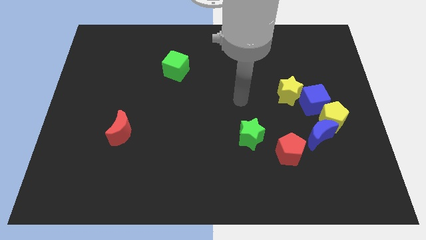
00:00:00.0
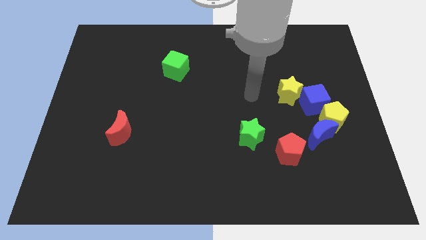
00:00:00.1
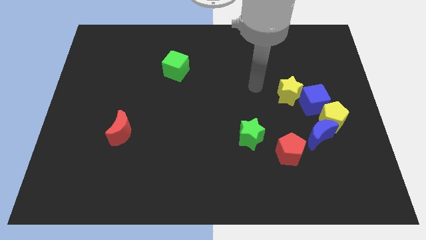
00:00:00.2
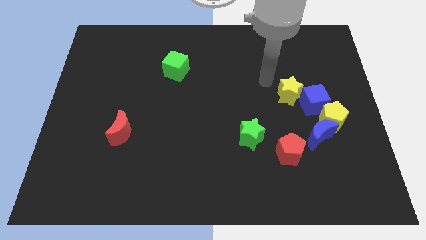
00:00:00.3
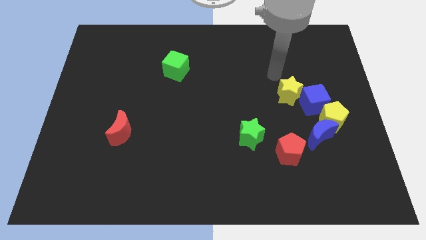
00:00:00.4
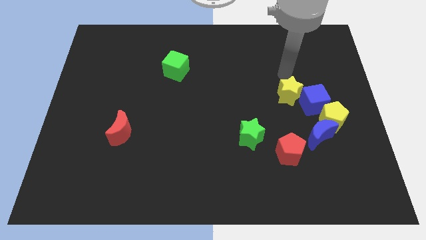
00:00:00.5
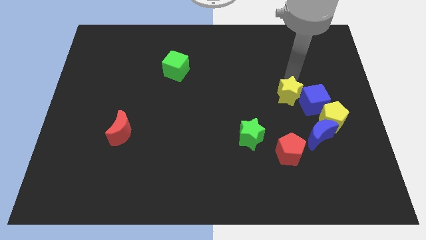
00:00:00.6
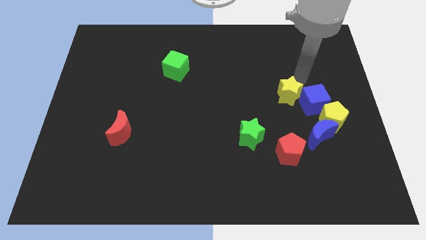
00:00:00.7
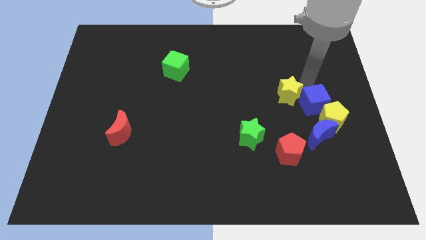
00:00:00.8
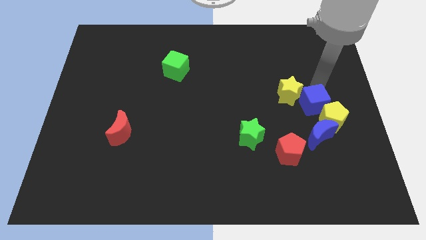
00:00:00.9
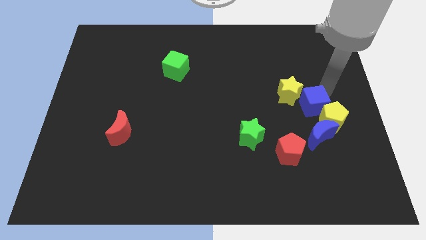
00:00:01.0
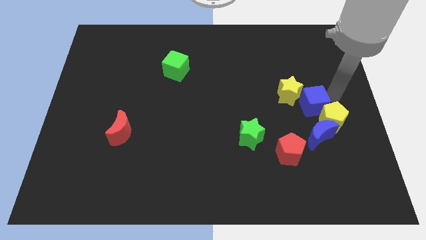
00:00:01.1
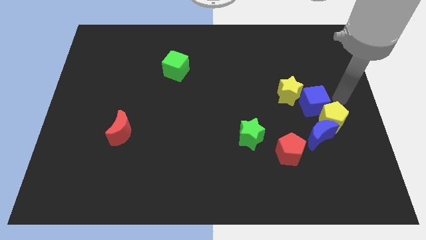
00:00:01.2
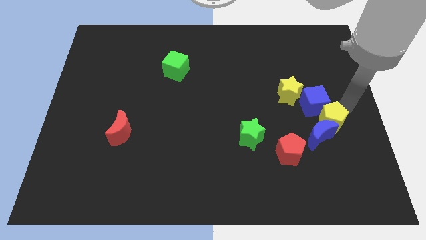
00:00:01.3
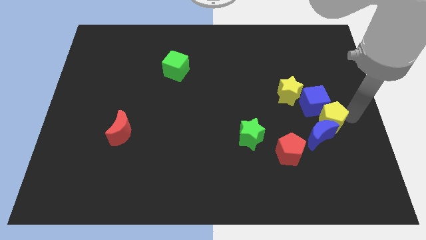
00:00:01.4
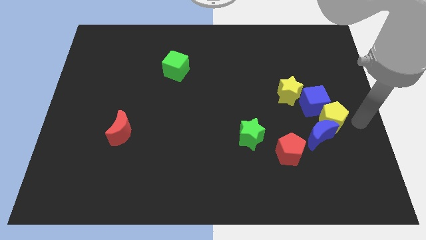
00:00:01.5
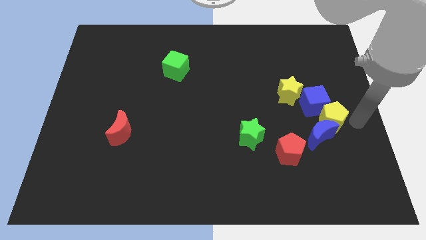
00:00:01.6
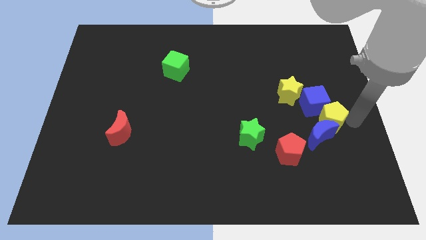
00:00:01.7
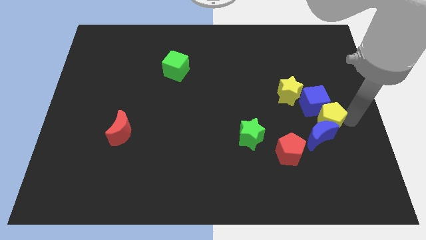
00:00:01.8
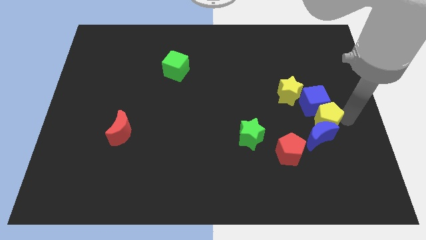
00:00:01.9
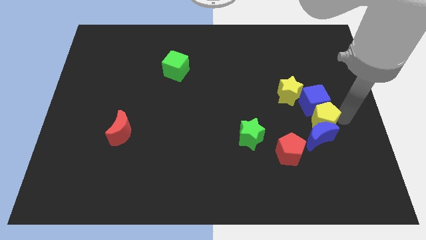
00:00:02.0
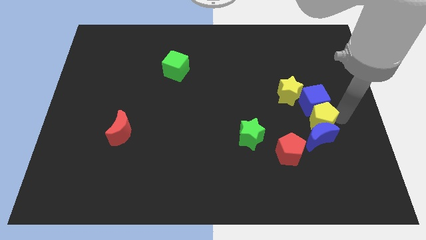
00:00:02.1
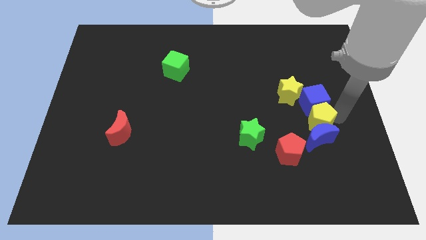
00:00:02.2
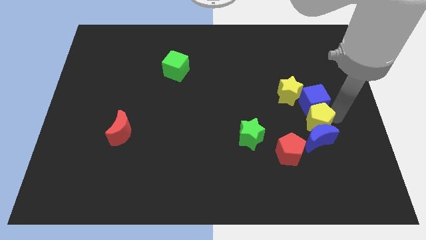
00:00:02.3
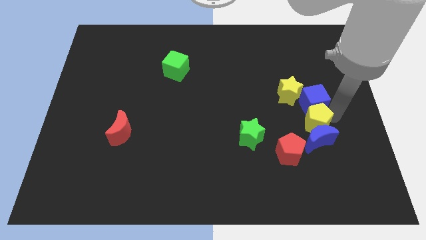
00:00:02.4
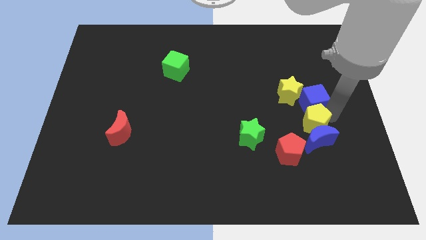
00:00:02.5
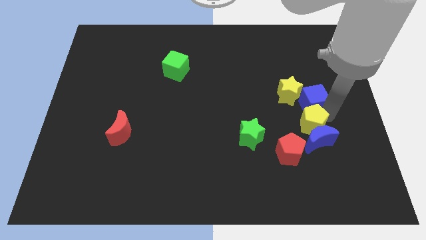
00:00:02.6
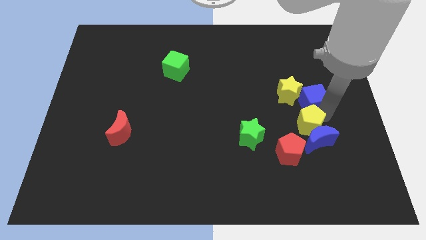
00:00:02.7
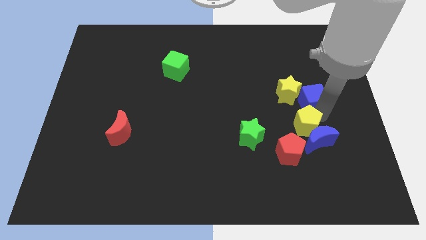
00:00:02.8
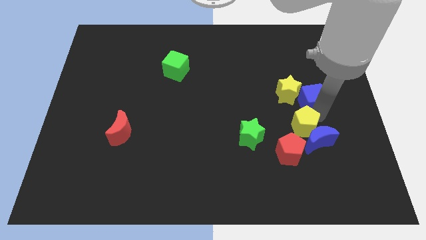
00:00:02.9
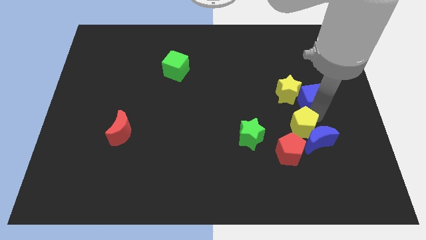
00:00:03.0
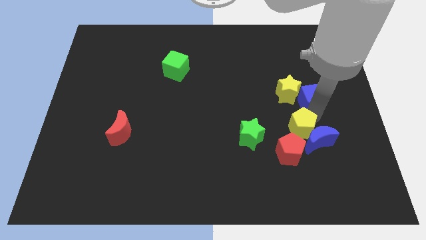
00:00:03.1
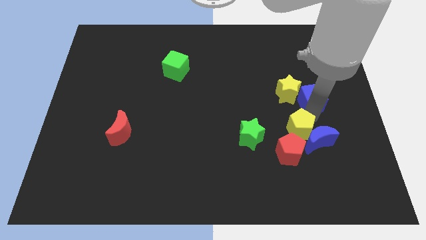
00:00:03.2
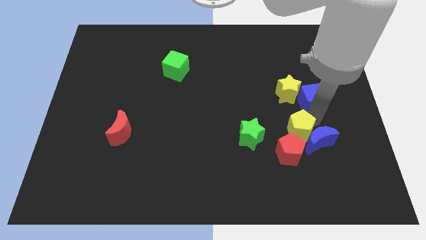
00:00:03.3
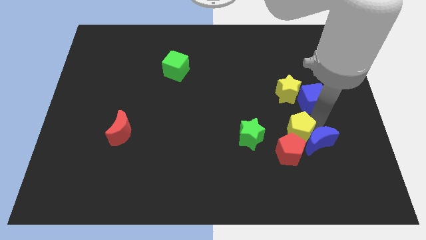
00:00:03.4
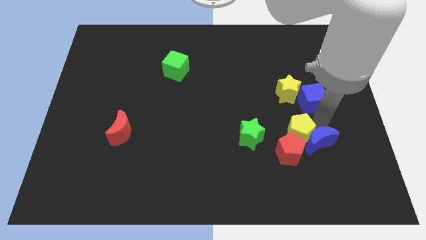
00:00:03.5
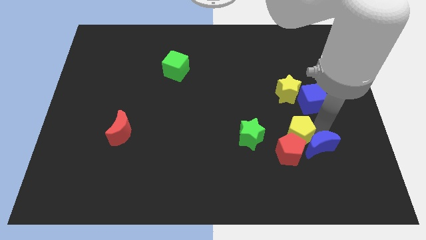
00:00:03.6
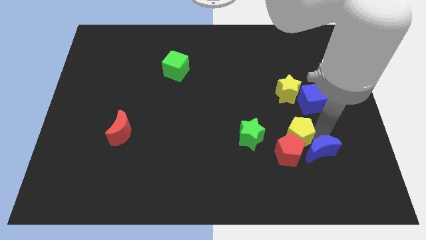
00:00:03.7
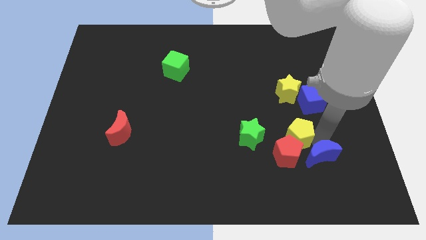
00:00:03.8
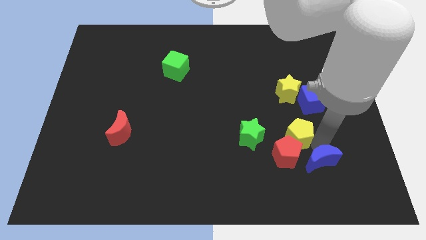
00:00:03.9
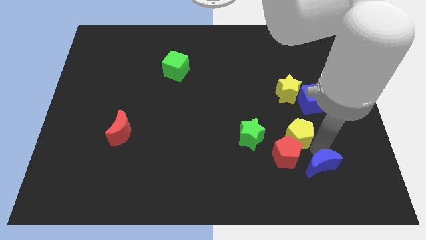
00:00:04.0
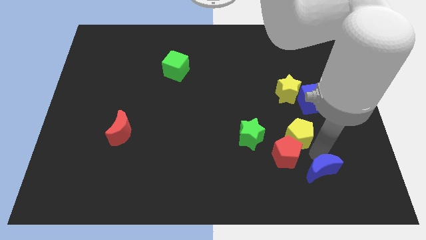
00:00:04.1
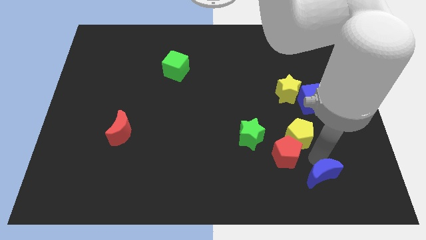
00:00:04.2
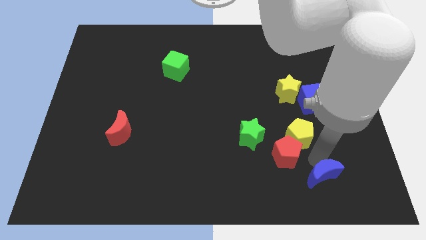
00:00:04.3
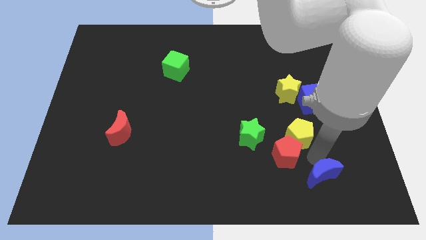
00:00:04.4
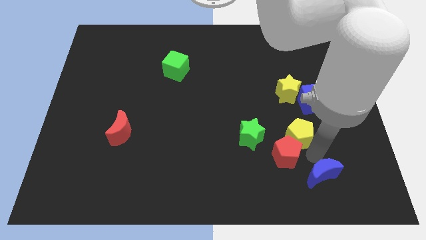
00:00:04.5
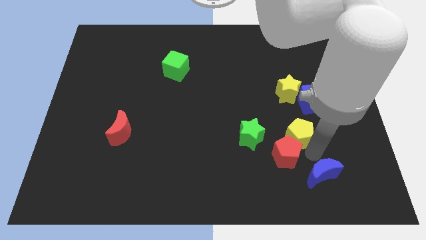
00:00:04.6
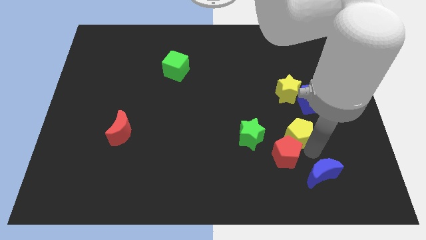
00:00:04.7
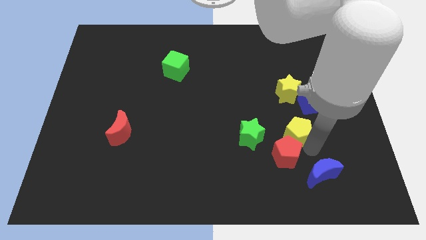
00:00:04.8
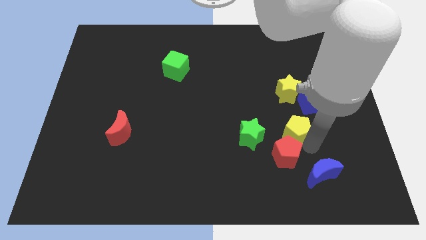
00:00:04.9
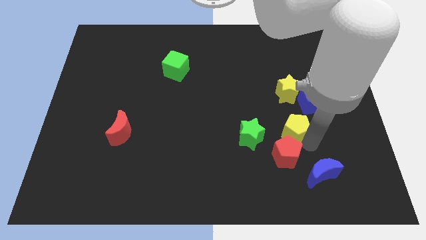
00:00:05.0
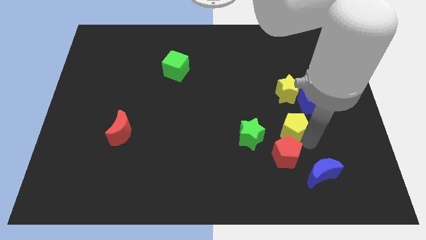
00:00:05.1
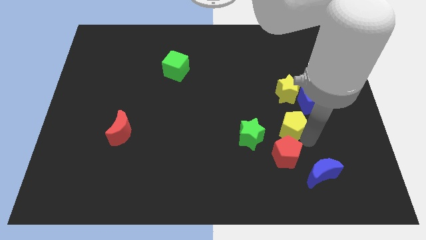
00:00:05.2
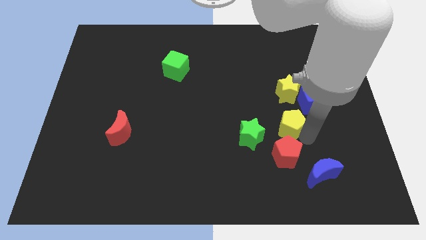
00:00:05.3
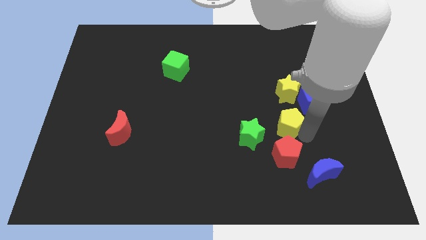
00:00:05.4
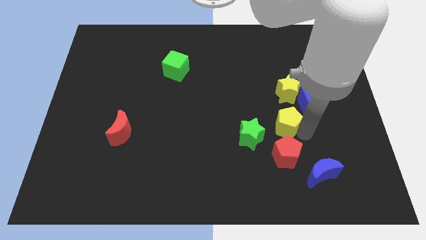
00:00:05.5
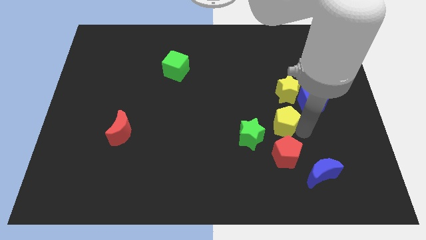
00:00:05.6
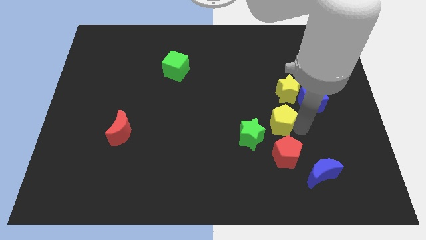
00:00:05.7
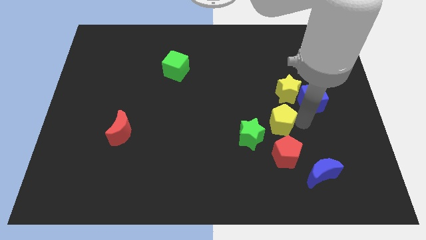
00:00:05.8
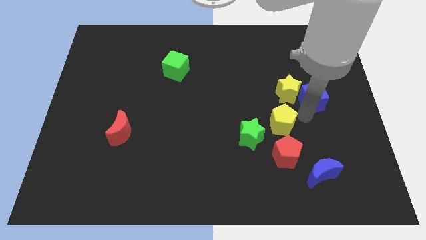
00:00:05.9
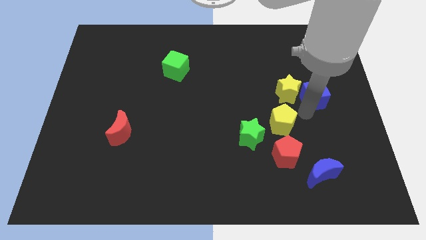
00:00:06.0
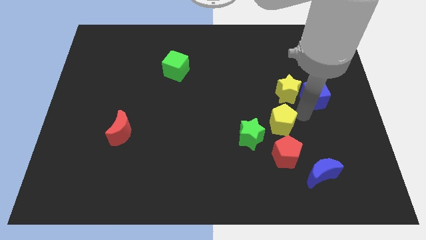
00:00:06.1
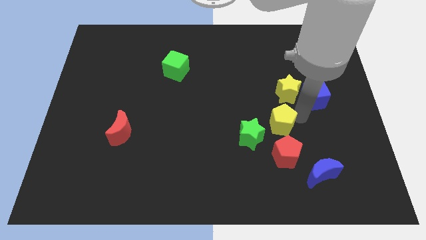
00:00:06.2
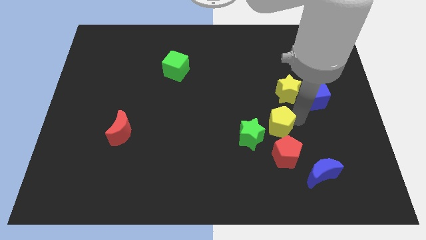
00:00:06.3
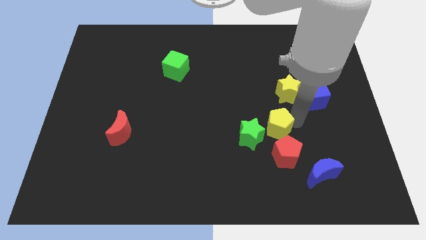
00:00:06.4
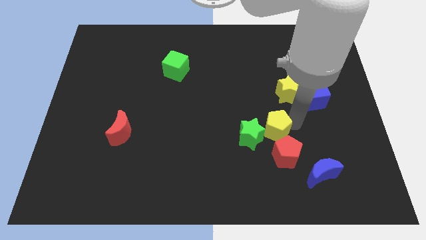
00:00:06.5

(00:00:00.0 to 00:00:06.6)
slide the yellow pentagon next to the green star
